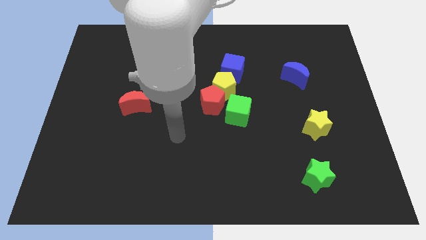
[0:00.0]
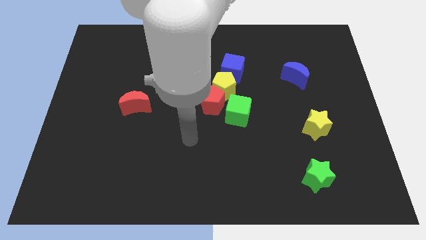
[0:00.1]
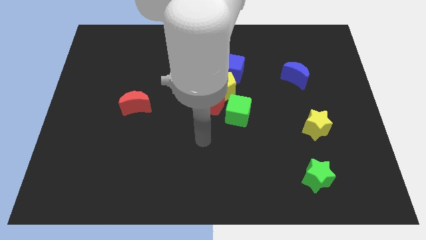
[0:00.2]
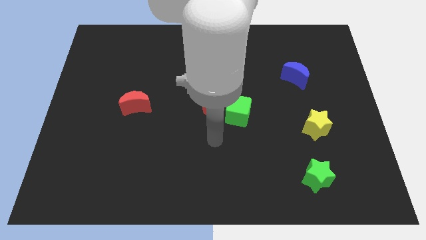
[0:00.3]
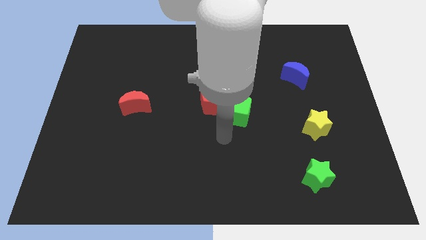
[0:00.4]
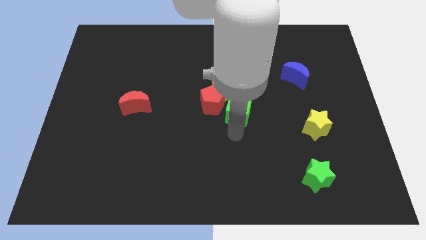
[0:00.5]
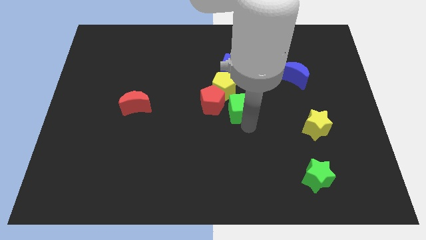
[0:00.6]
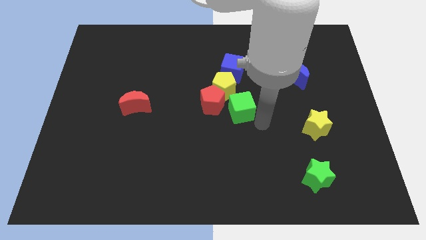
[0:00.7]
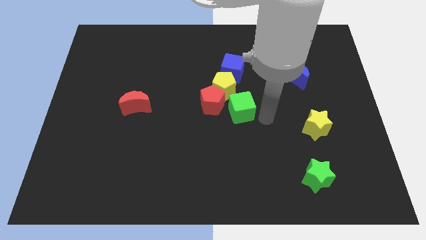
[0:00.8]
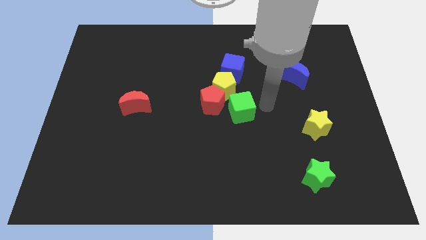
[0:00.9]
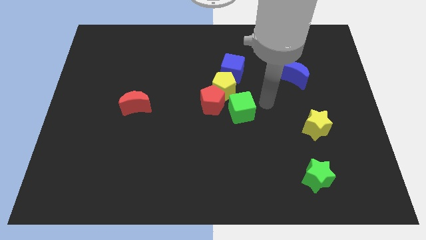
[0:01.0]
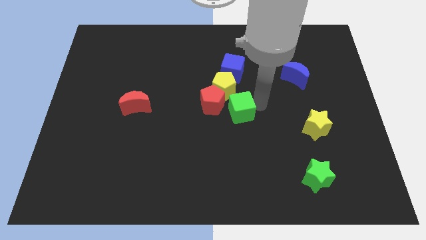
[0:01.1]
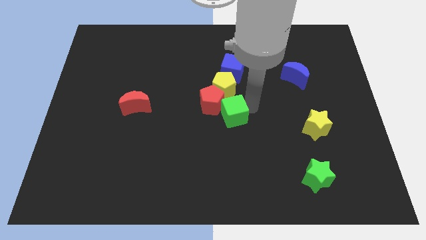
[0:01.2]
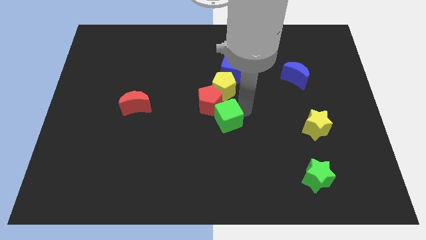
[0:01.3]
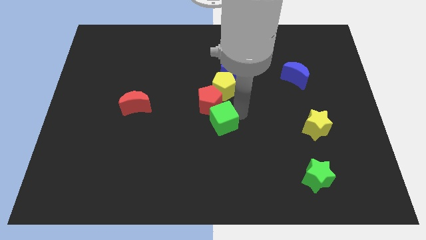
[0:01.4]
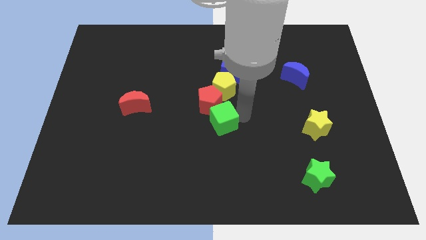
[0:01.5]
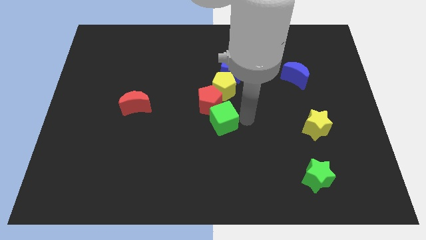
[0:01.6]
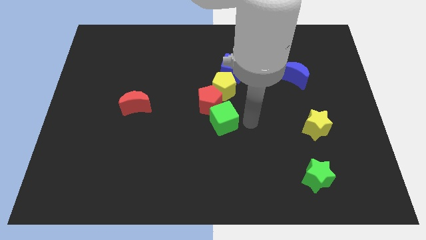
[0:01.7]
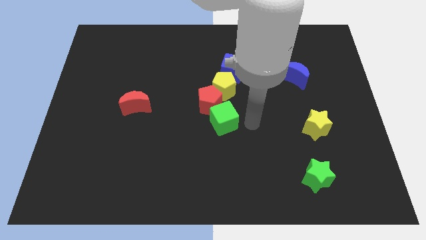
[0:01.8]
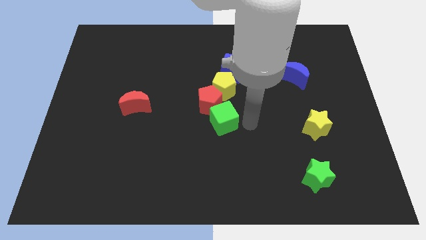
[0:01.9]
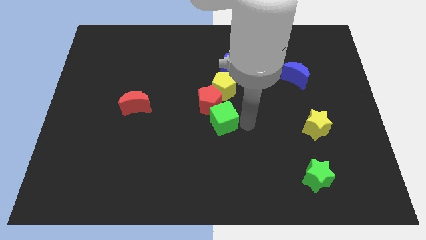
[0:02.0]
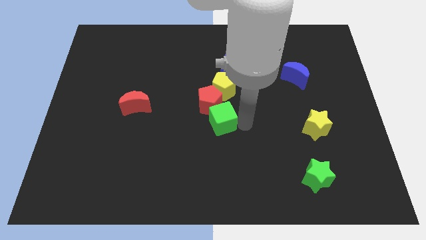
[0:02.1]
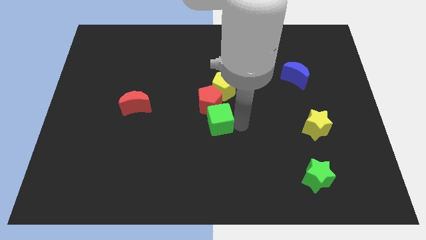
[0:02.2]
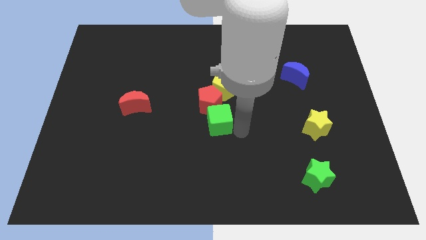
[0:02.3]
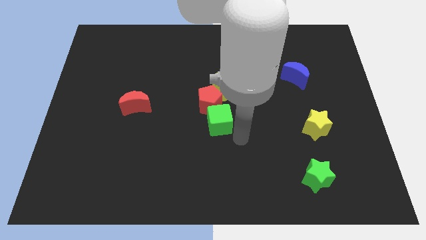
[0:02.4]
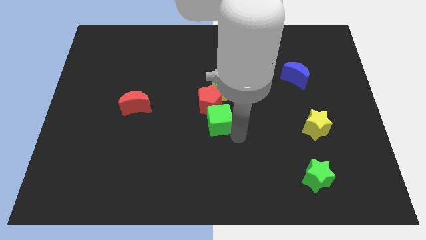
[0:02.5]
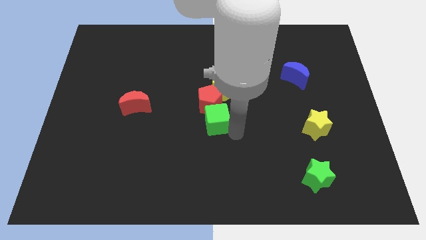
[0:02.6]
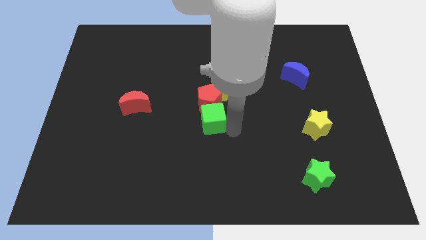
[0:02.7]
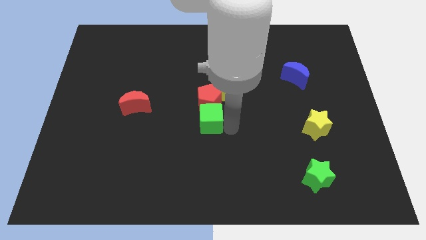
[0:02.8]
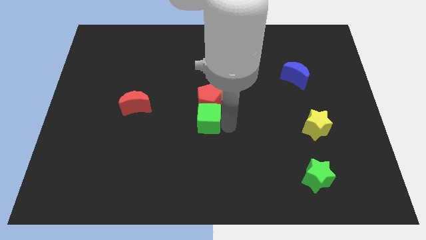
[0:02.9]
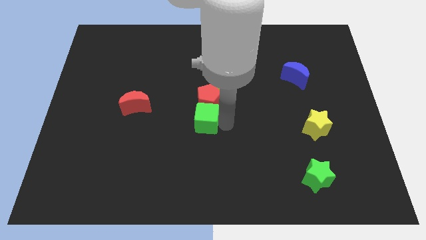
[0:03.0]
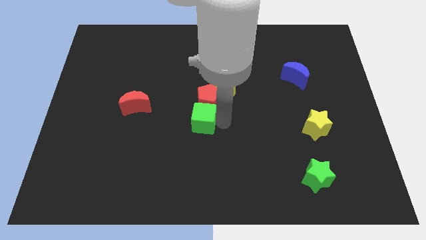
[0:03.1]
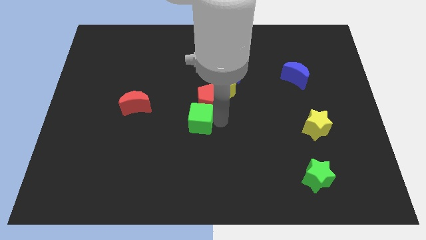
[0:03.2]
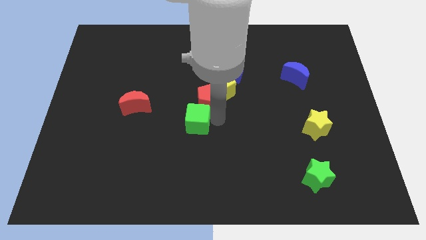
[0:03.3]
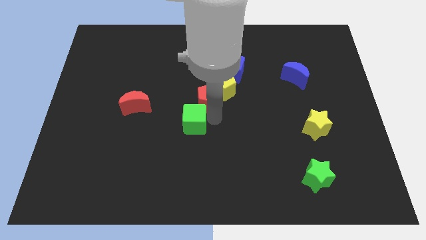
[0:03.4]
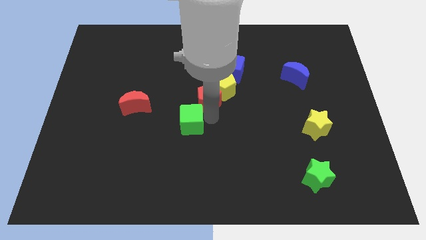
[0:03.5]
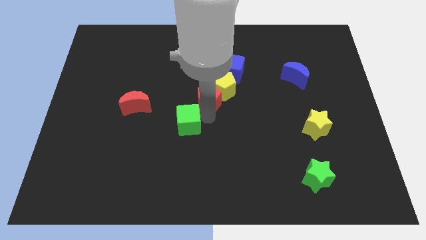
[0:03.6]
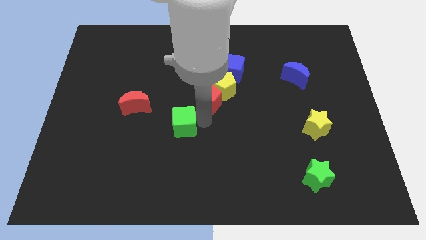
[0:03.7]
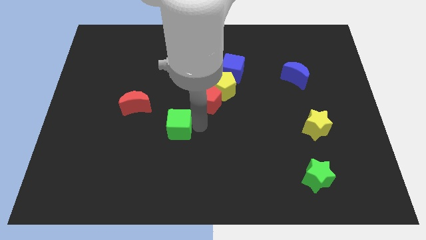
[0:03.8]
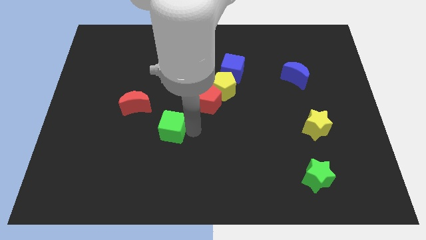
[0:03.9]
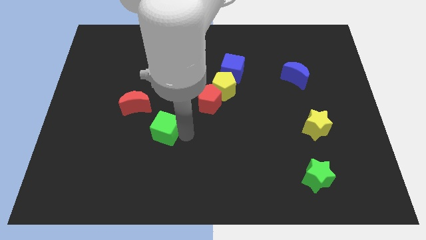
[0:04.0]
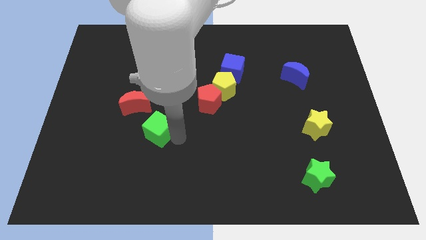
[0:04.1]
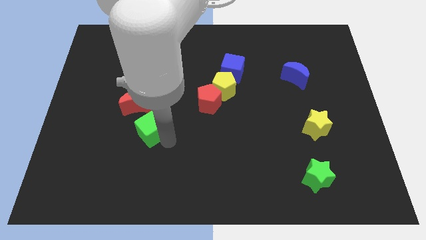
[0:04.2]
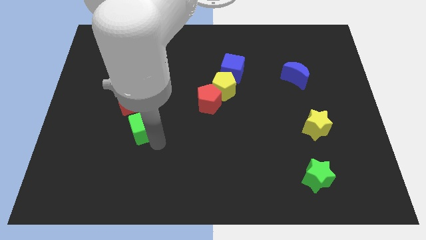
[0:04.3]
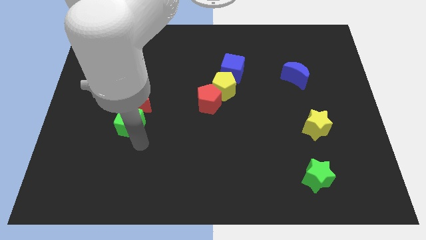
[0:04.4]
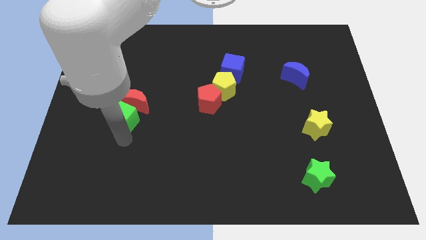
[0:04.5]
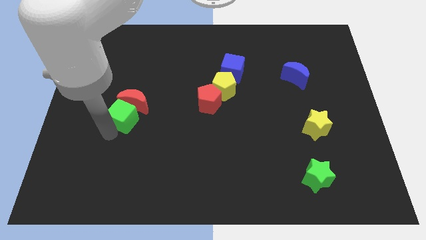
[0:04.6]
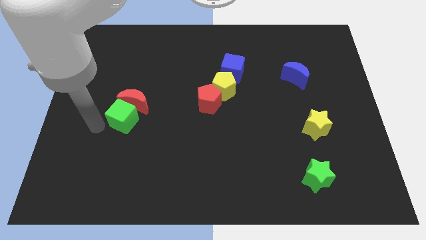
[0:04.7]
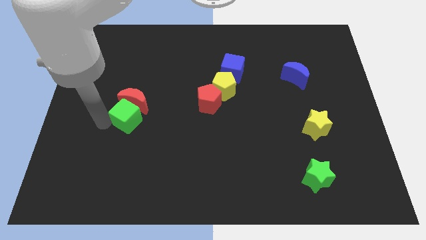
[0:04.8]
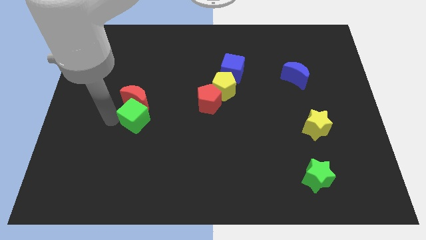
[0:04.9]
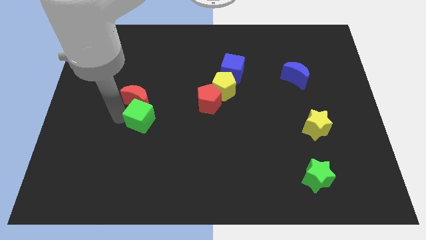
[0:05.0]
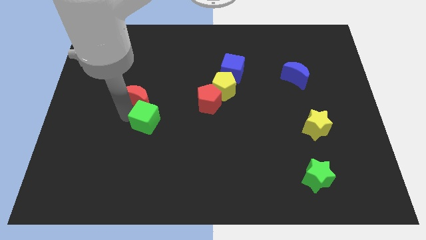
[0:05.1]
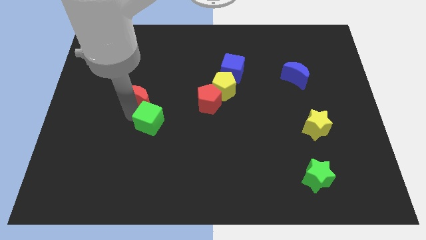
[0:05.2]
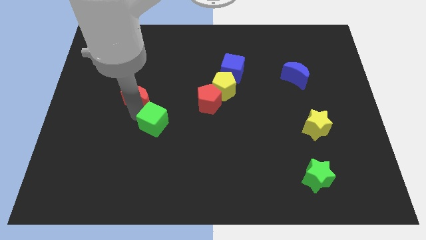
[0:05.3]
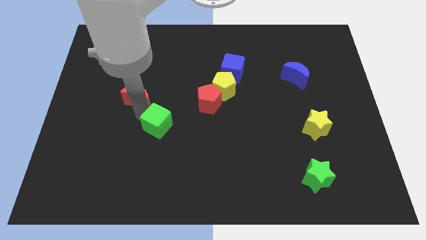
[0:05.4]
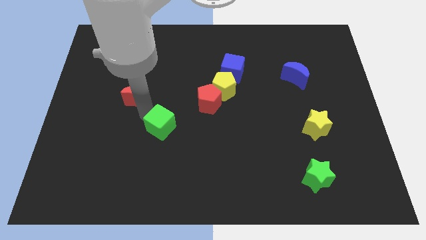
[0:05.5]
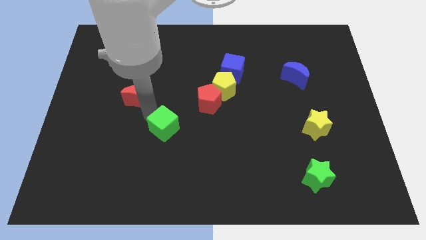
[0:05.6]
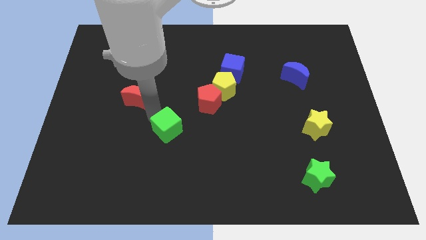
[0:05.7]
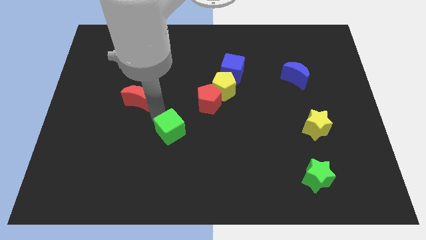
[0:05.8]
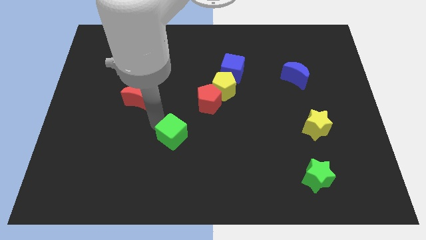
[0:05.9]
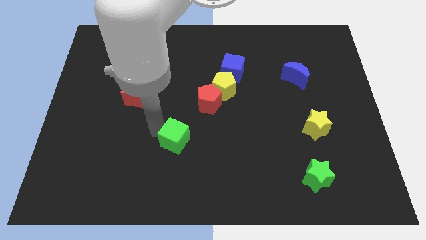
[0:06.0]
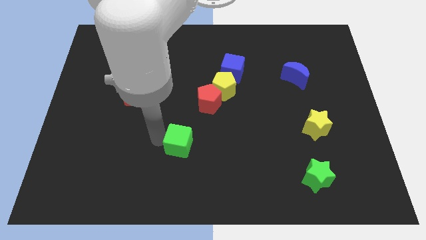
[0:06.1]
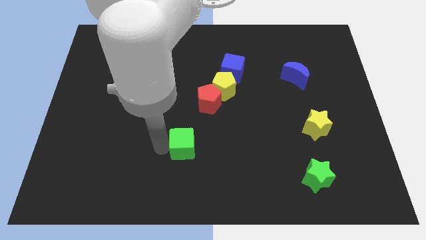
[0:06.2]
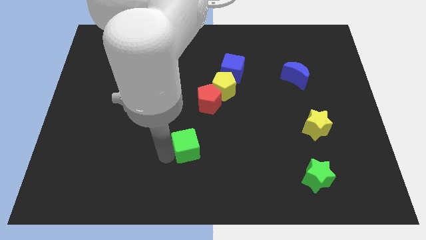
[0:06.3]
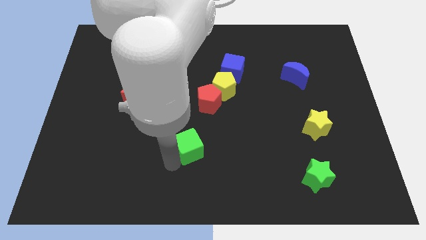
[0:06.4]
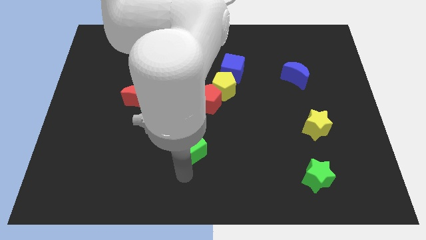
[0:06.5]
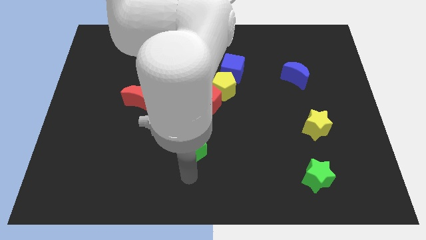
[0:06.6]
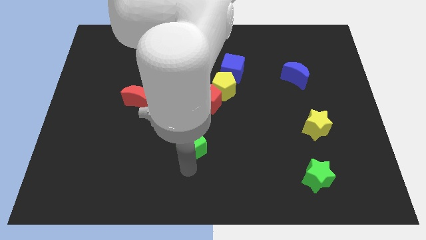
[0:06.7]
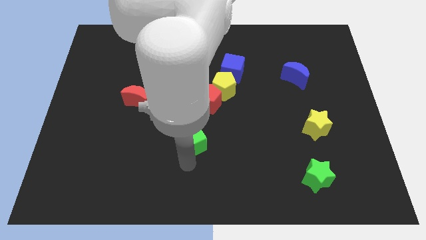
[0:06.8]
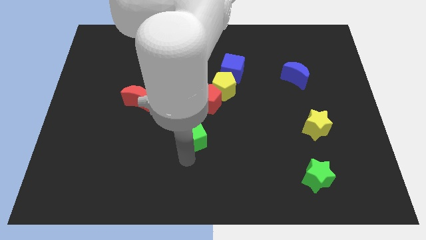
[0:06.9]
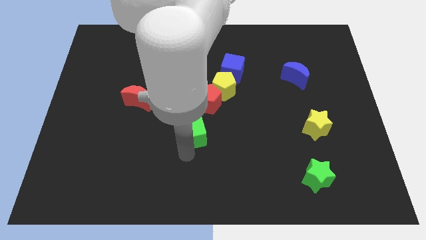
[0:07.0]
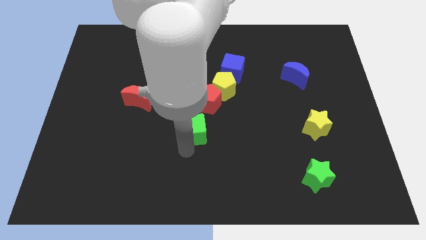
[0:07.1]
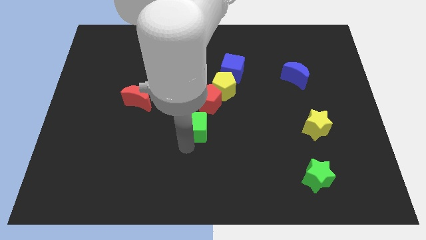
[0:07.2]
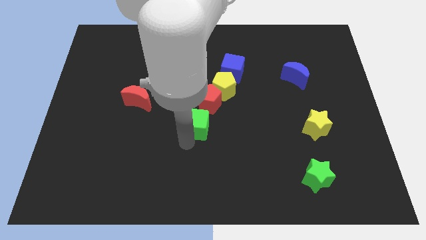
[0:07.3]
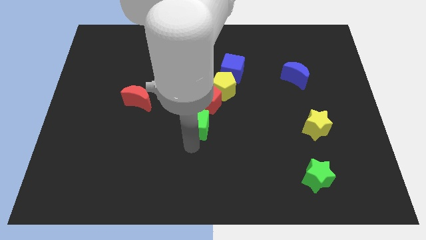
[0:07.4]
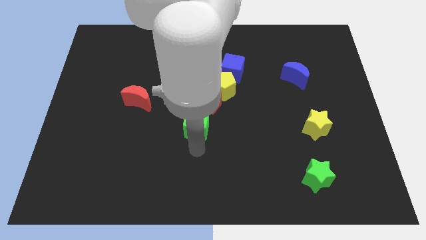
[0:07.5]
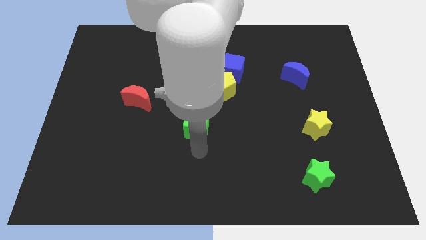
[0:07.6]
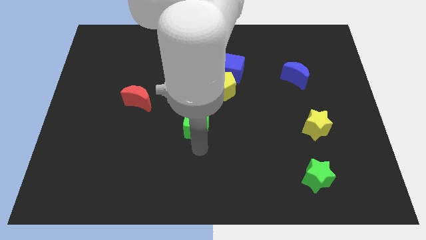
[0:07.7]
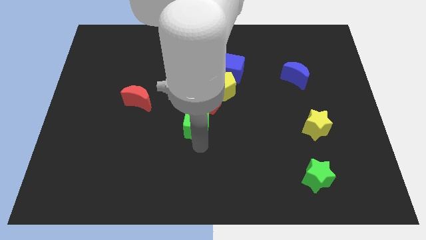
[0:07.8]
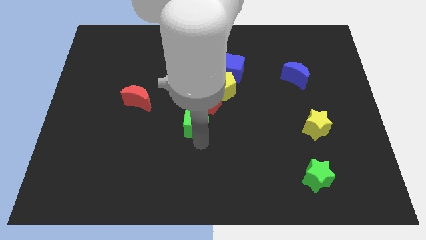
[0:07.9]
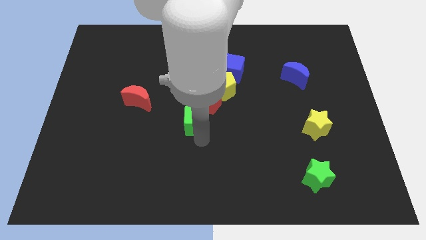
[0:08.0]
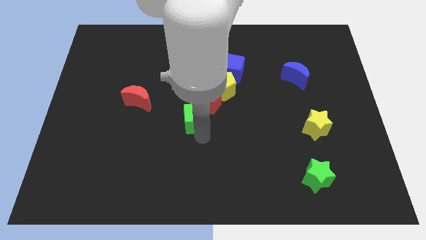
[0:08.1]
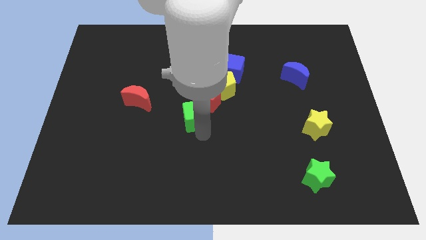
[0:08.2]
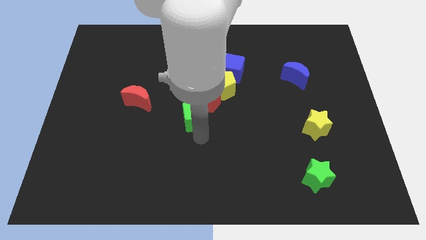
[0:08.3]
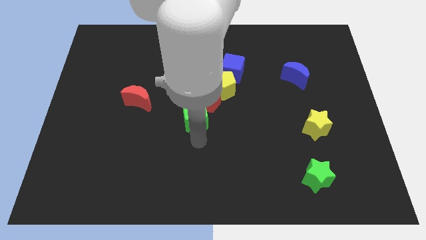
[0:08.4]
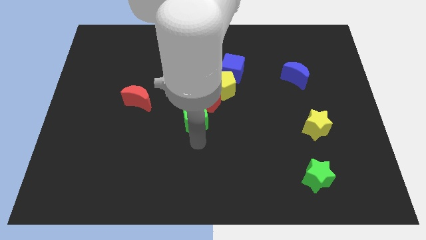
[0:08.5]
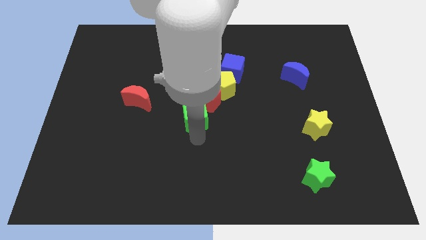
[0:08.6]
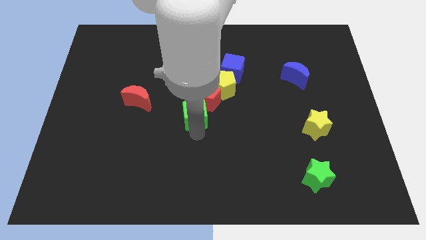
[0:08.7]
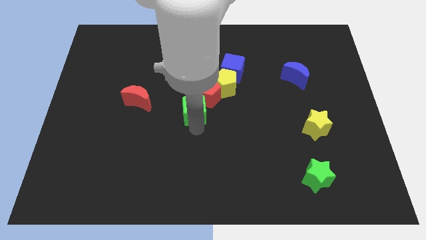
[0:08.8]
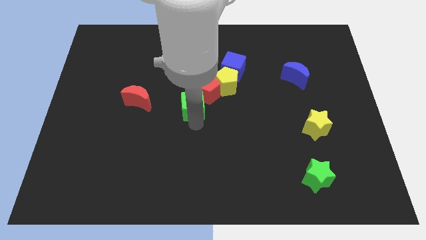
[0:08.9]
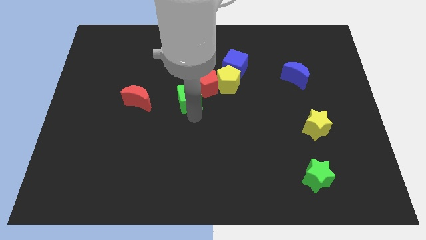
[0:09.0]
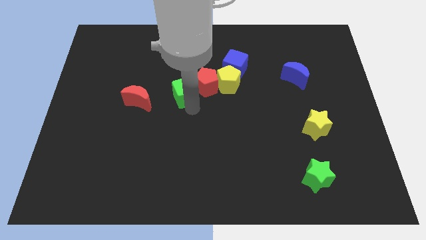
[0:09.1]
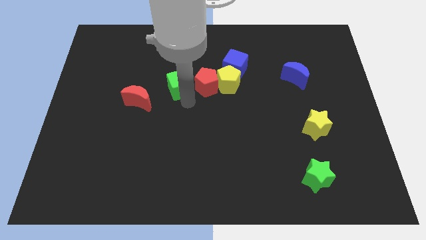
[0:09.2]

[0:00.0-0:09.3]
put the green cube to the top left side of the red pentagon
